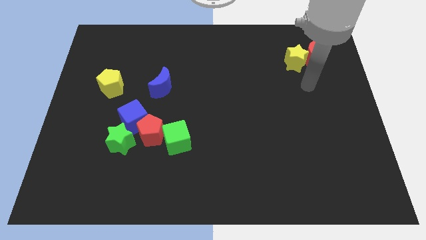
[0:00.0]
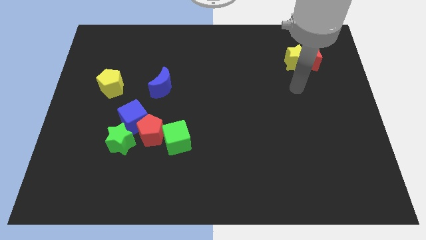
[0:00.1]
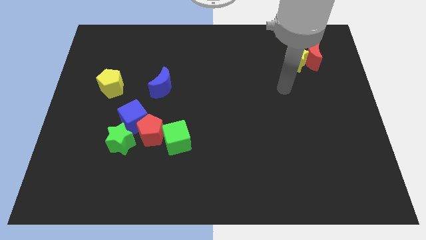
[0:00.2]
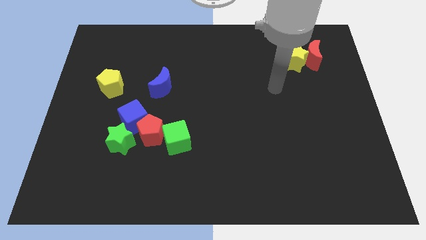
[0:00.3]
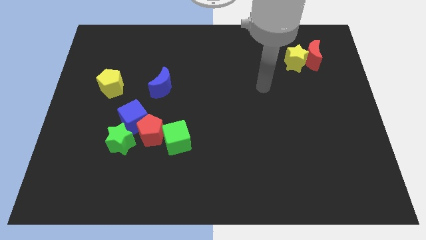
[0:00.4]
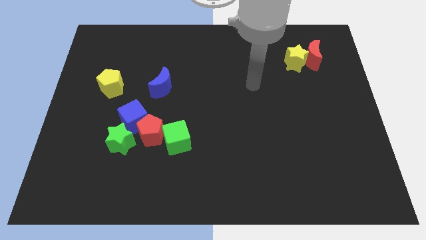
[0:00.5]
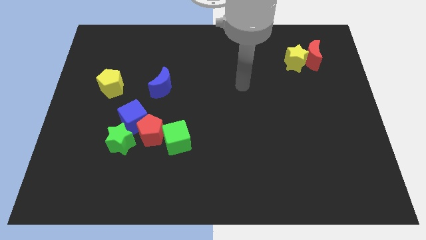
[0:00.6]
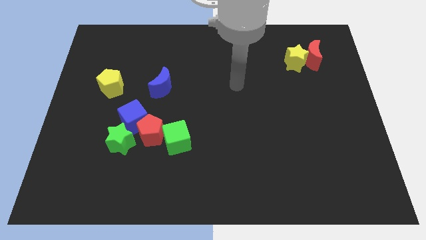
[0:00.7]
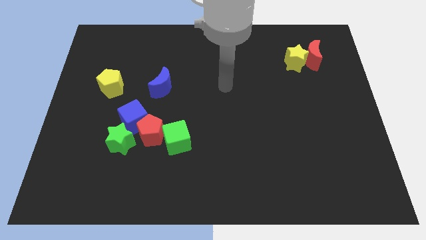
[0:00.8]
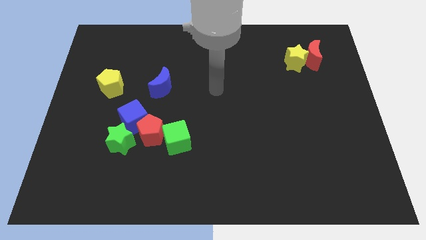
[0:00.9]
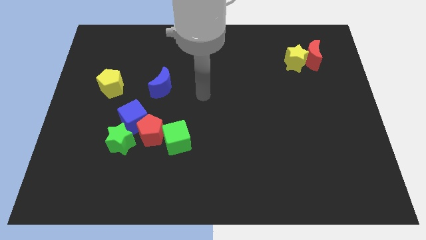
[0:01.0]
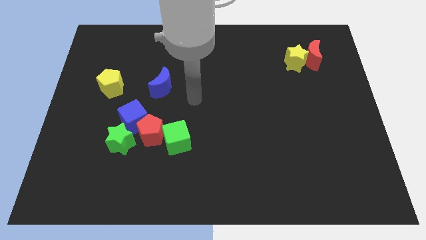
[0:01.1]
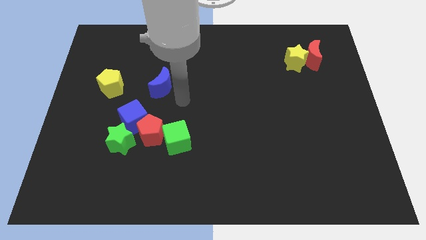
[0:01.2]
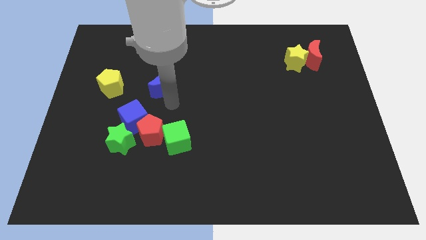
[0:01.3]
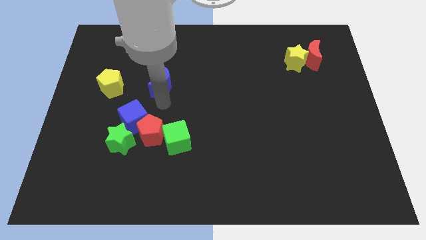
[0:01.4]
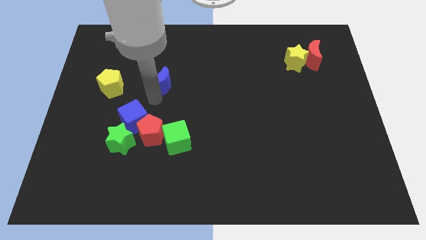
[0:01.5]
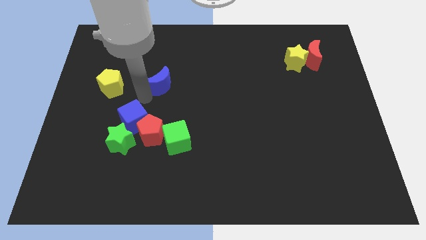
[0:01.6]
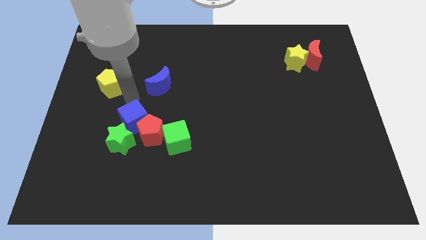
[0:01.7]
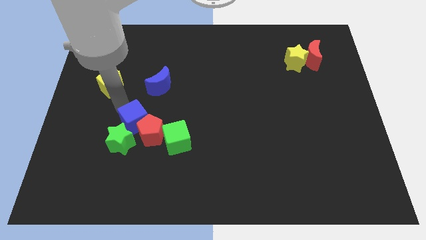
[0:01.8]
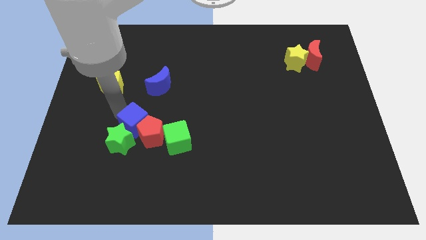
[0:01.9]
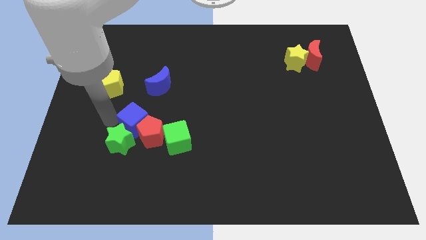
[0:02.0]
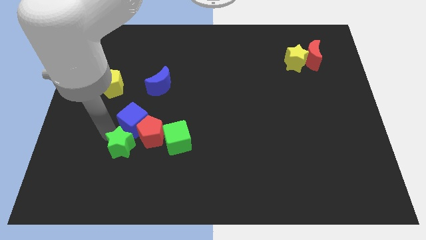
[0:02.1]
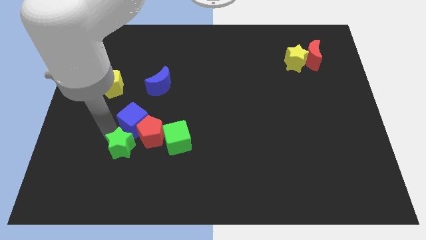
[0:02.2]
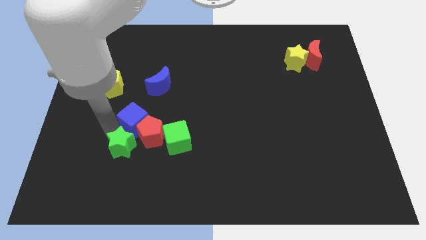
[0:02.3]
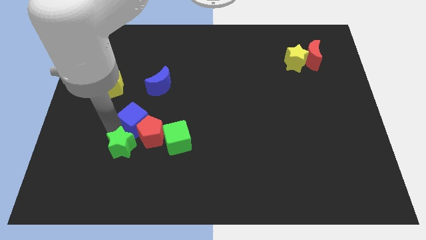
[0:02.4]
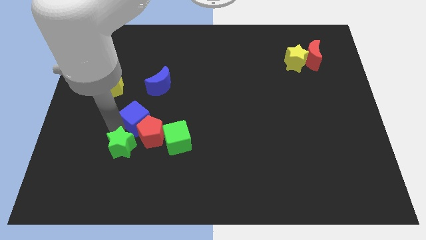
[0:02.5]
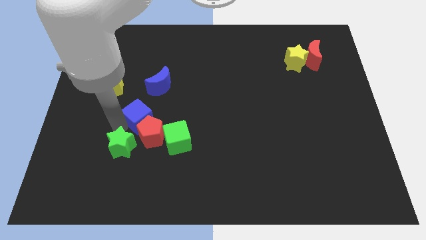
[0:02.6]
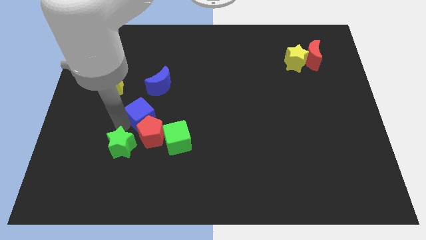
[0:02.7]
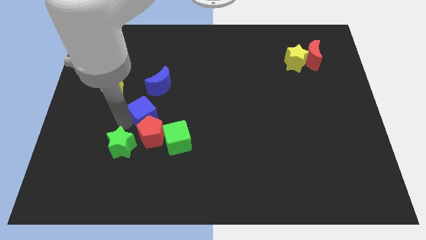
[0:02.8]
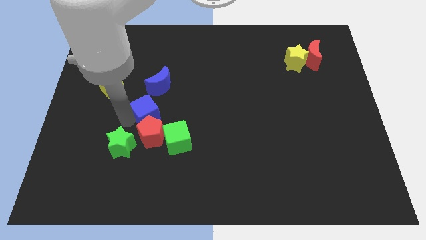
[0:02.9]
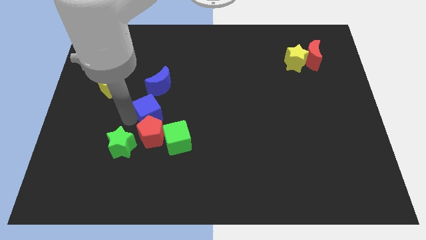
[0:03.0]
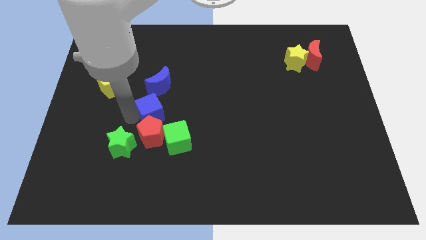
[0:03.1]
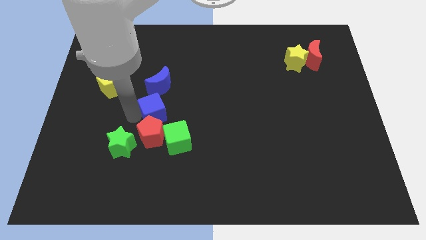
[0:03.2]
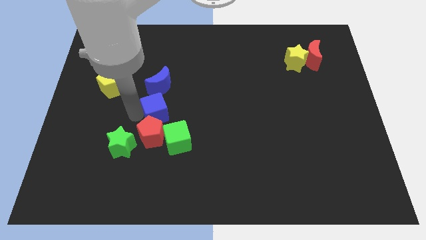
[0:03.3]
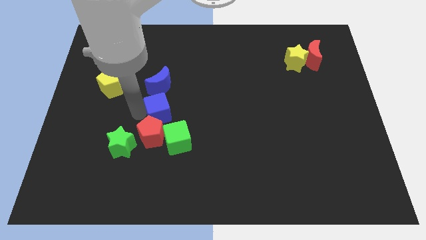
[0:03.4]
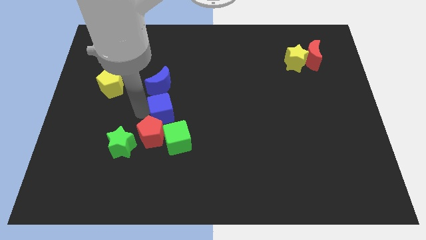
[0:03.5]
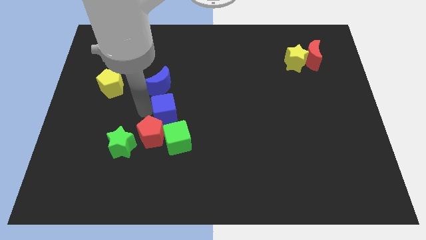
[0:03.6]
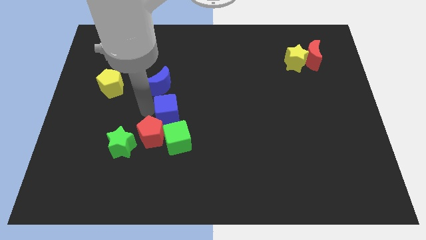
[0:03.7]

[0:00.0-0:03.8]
slightly slide the blue cube to the right

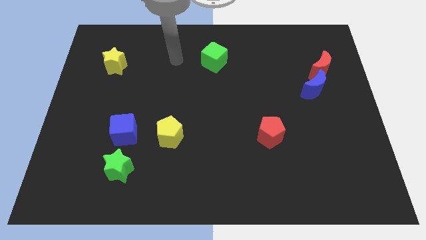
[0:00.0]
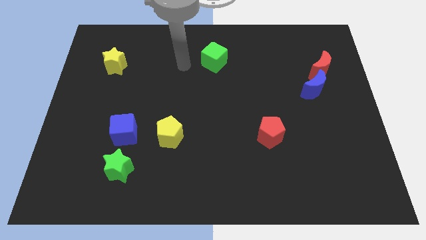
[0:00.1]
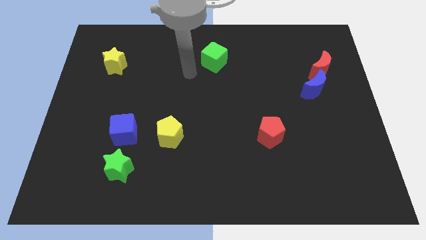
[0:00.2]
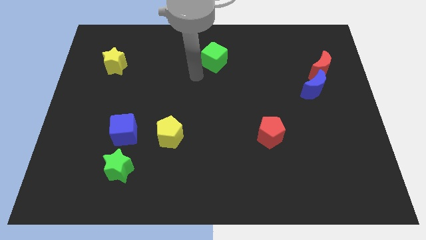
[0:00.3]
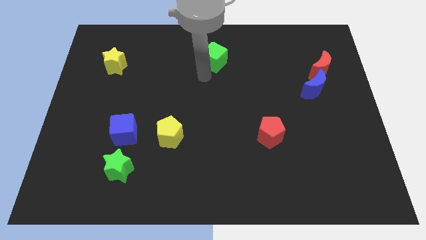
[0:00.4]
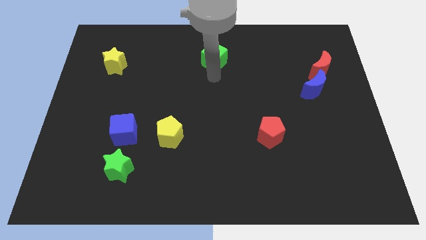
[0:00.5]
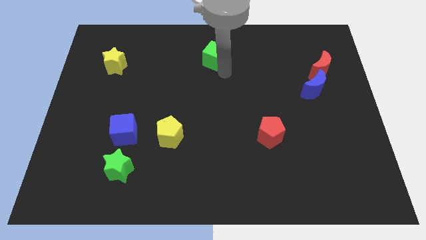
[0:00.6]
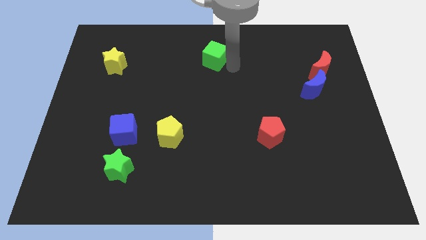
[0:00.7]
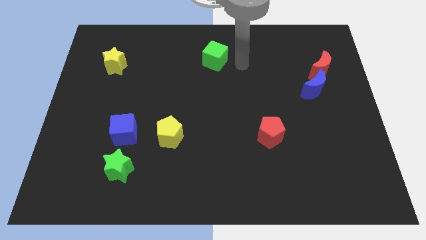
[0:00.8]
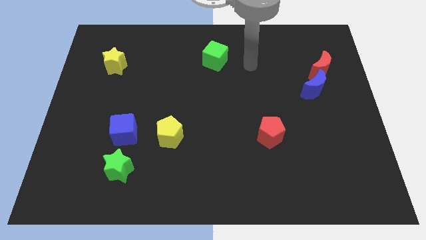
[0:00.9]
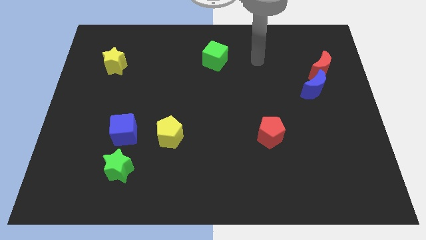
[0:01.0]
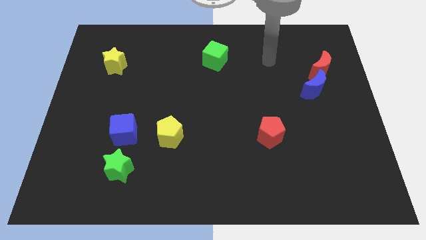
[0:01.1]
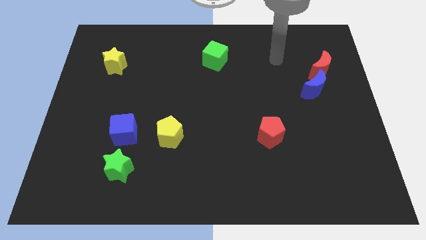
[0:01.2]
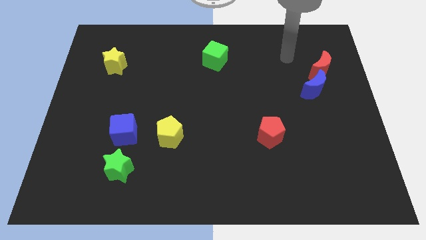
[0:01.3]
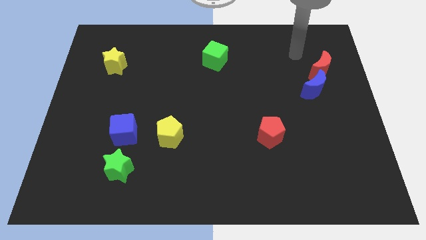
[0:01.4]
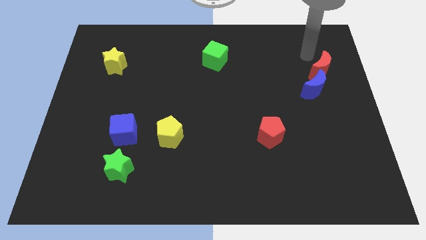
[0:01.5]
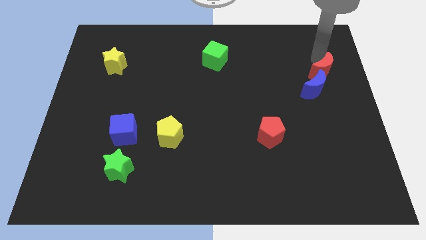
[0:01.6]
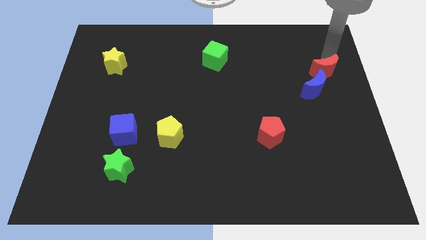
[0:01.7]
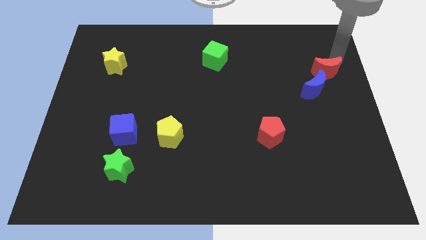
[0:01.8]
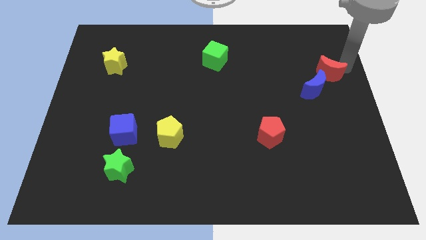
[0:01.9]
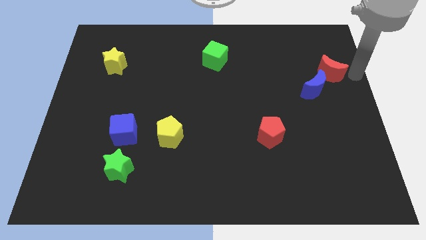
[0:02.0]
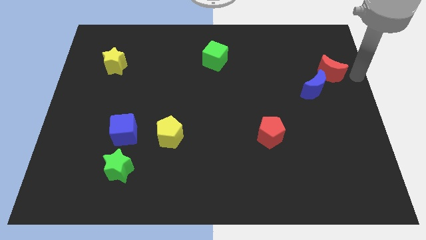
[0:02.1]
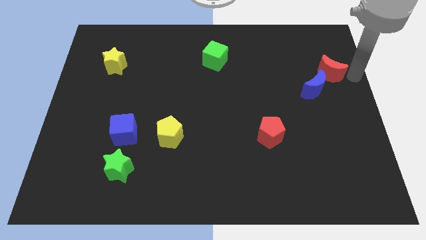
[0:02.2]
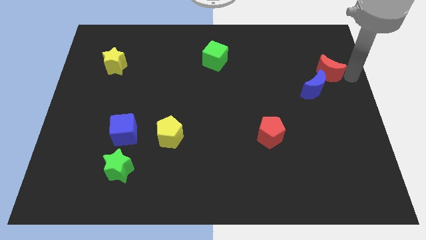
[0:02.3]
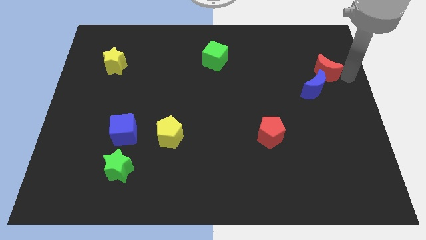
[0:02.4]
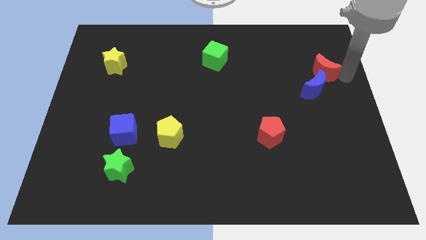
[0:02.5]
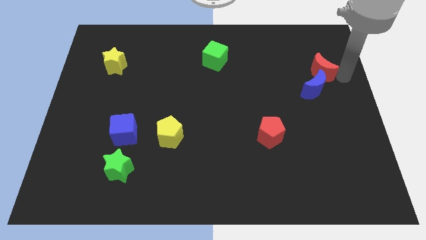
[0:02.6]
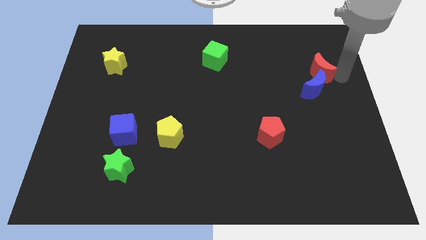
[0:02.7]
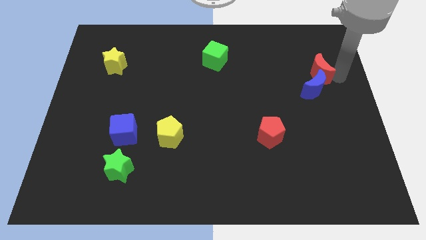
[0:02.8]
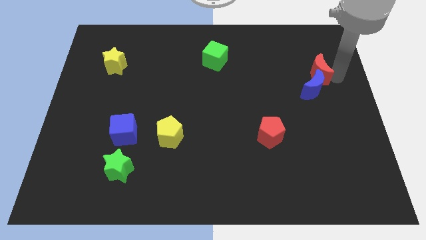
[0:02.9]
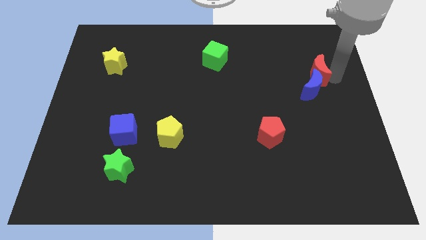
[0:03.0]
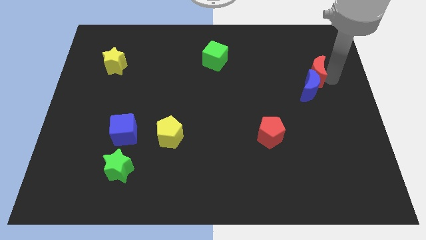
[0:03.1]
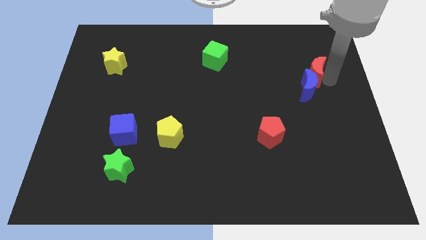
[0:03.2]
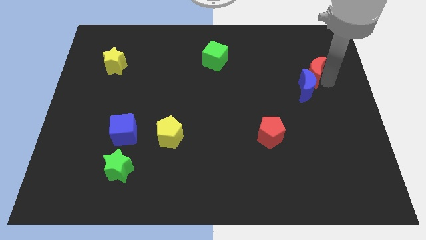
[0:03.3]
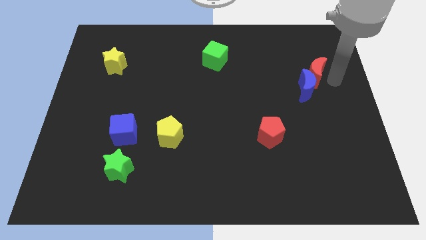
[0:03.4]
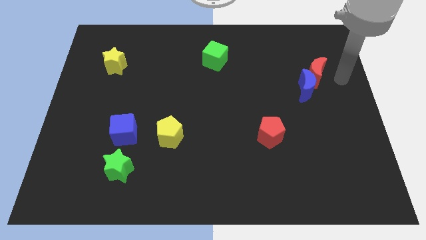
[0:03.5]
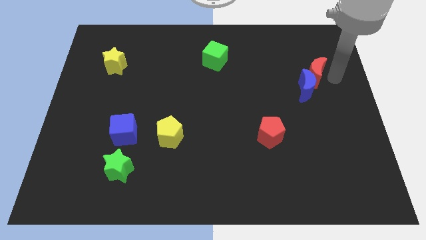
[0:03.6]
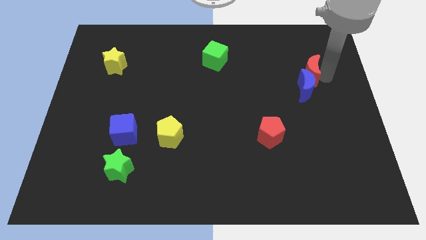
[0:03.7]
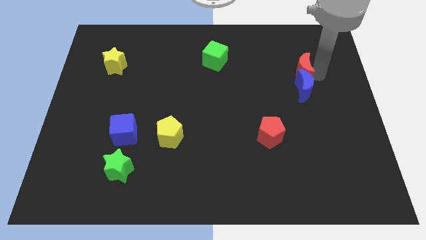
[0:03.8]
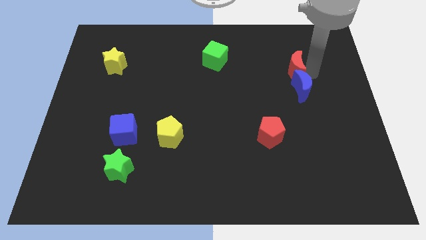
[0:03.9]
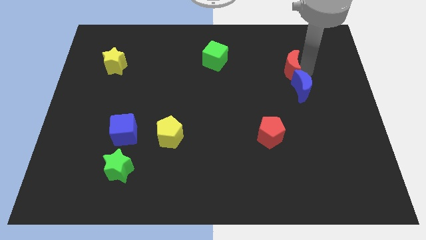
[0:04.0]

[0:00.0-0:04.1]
slightly push the red moon left

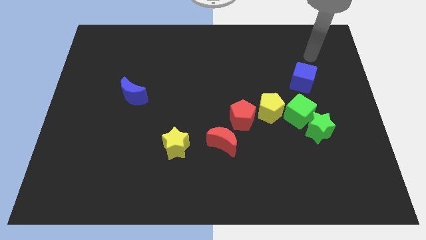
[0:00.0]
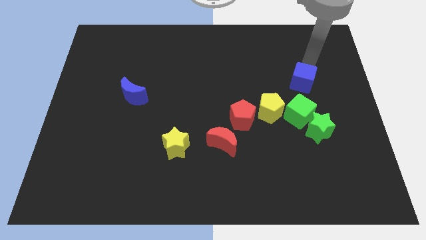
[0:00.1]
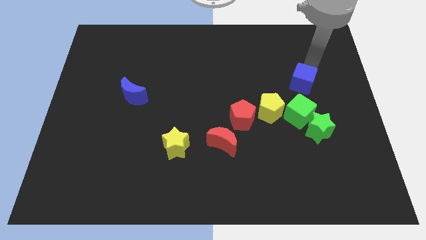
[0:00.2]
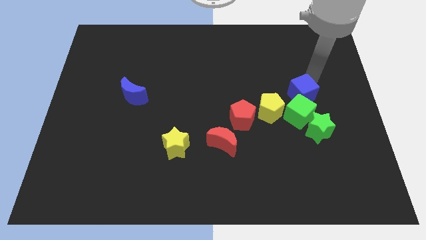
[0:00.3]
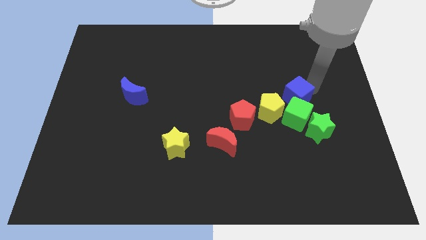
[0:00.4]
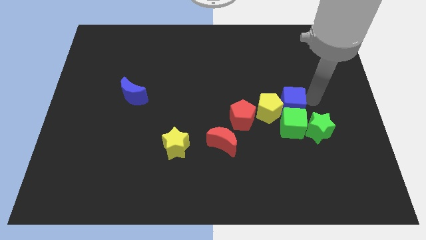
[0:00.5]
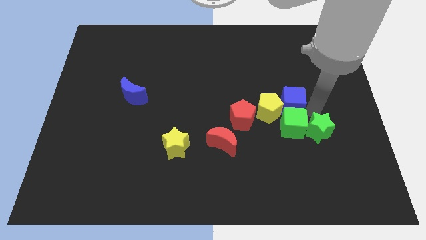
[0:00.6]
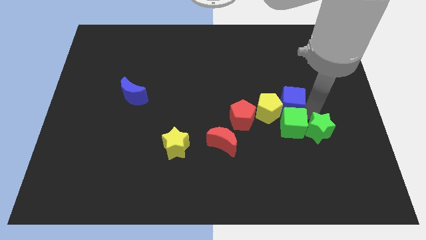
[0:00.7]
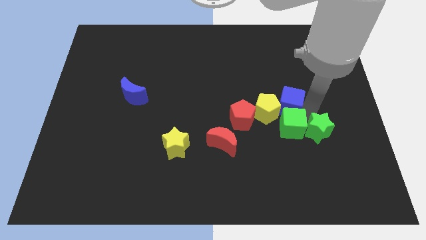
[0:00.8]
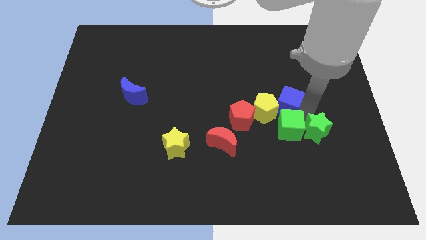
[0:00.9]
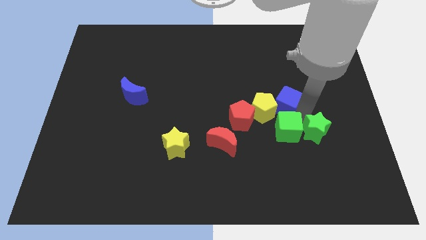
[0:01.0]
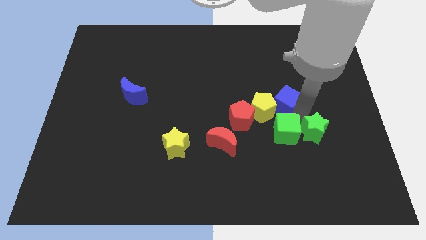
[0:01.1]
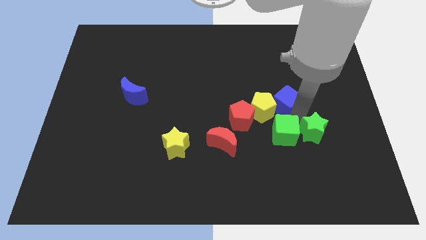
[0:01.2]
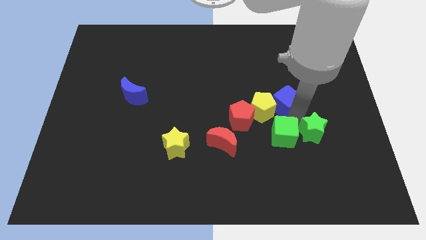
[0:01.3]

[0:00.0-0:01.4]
slightly push the green cube down and then left
